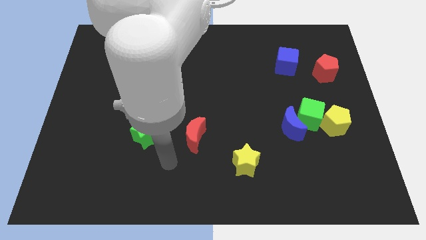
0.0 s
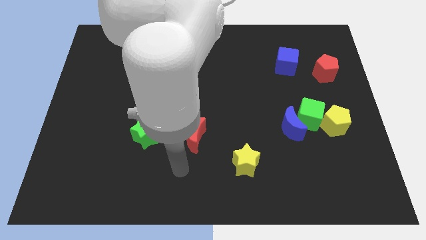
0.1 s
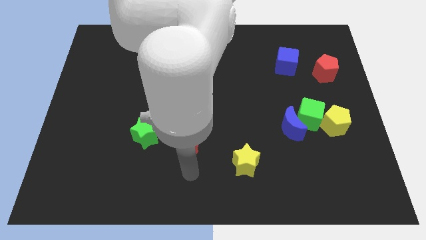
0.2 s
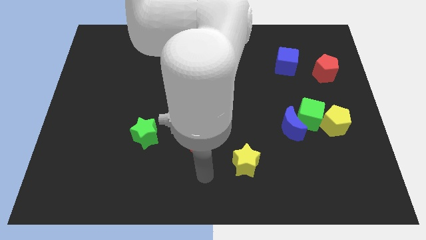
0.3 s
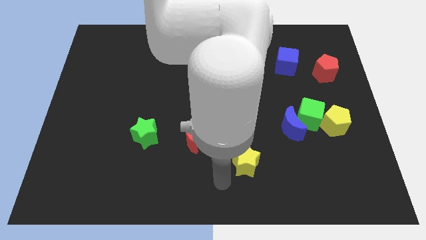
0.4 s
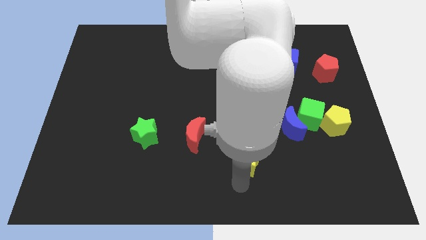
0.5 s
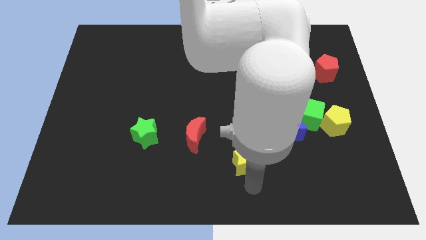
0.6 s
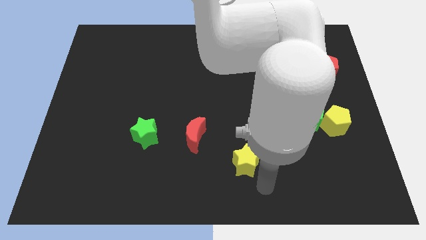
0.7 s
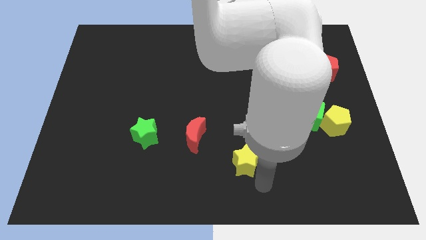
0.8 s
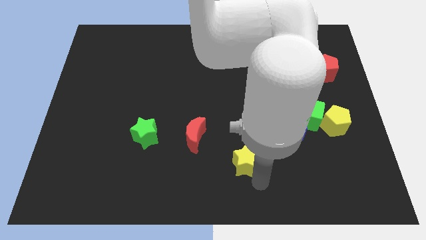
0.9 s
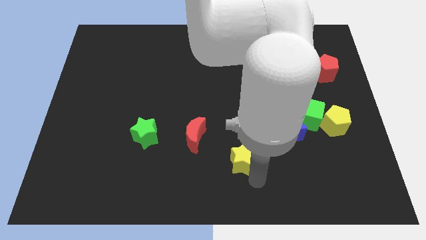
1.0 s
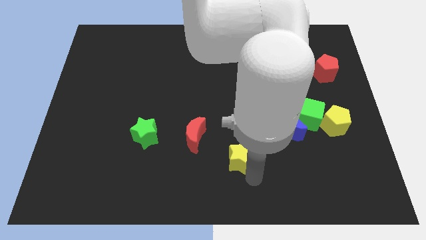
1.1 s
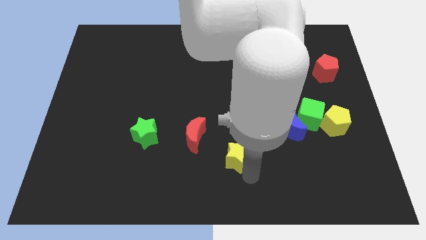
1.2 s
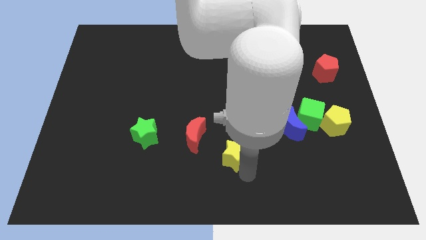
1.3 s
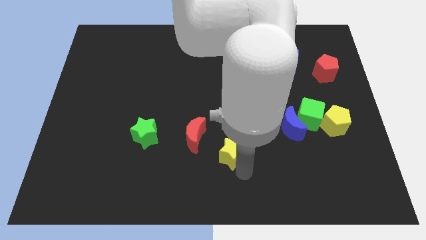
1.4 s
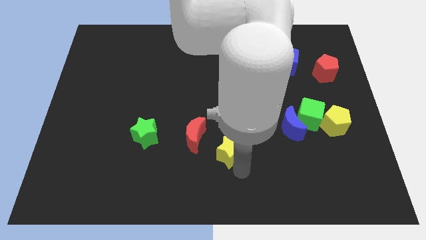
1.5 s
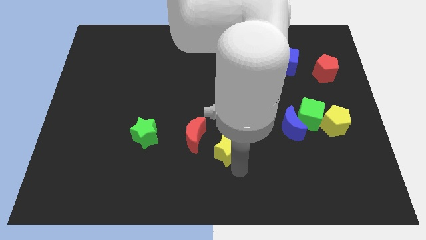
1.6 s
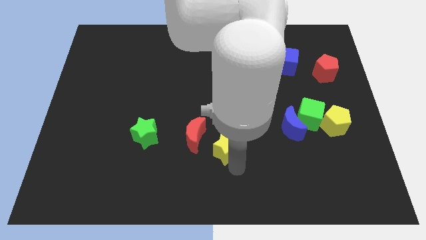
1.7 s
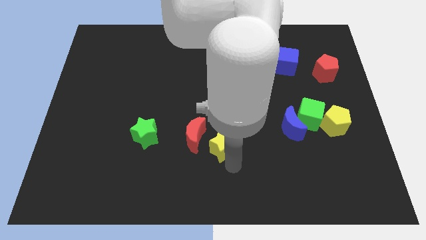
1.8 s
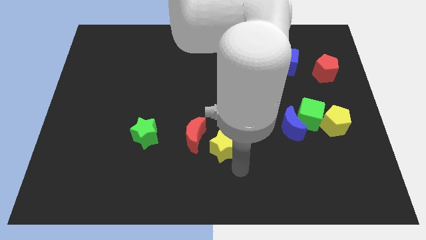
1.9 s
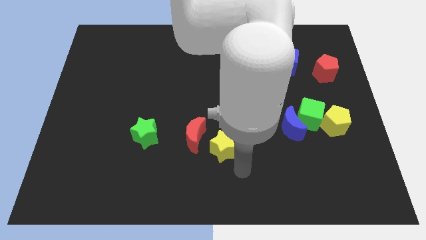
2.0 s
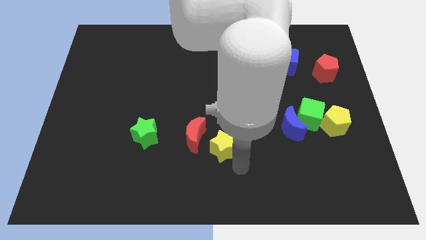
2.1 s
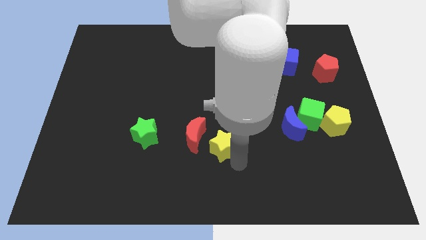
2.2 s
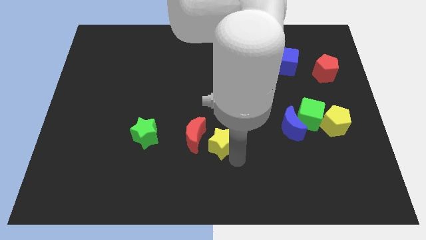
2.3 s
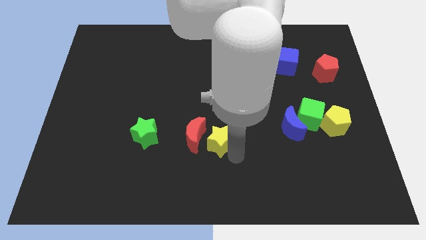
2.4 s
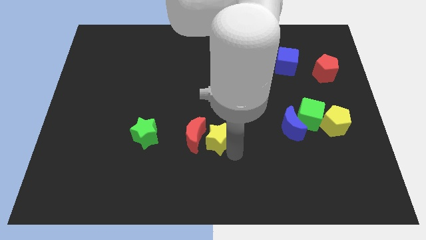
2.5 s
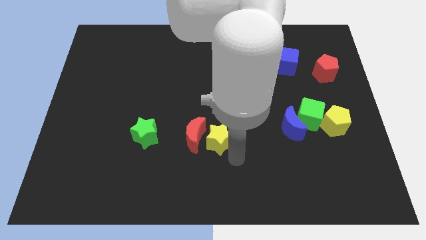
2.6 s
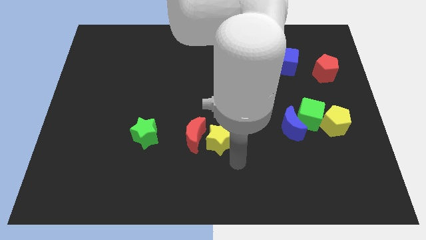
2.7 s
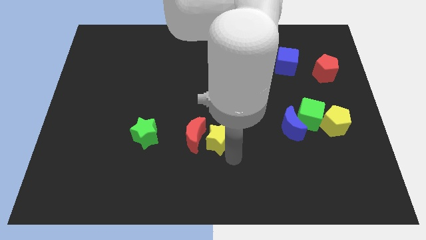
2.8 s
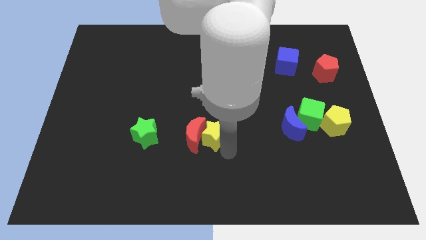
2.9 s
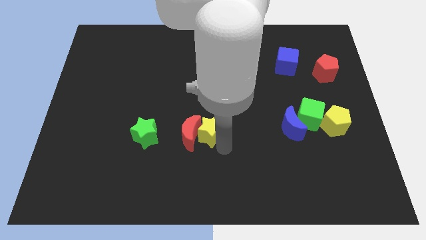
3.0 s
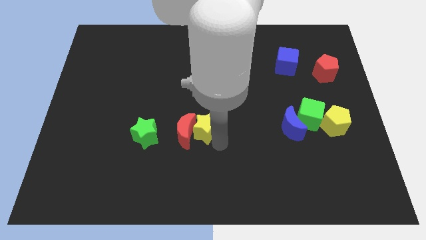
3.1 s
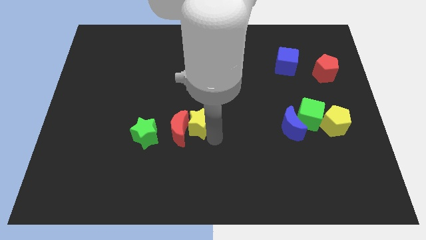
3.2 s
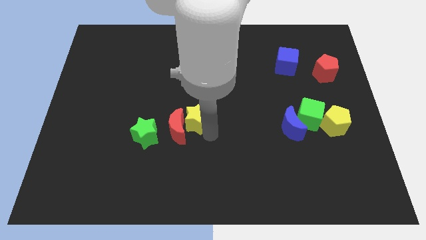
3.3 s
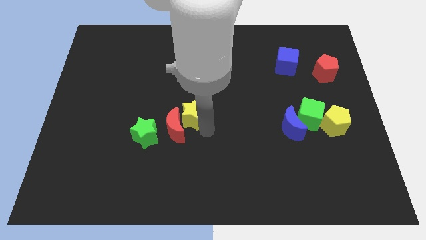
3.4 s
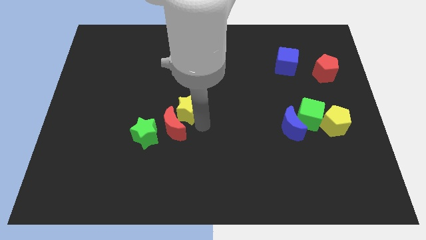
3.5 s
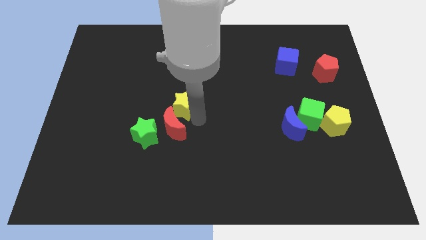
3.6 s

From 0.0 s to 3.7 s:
push the yellow star up and then to the left

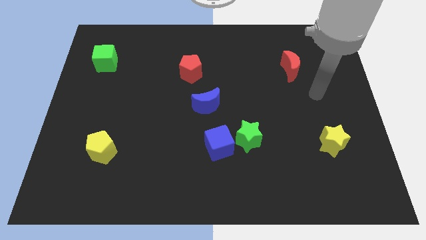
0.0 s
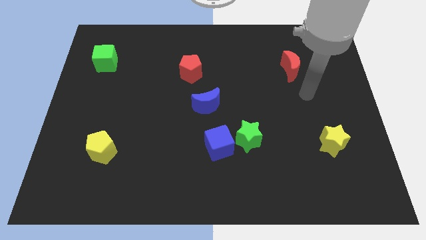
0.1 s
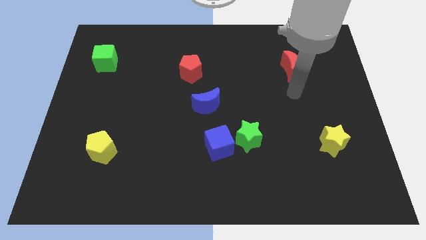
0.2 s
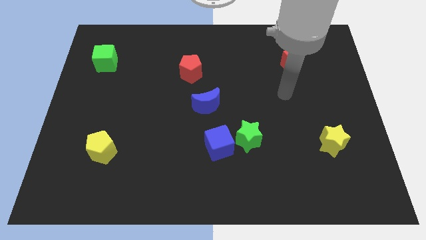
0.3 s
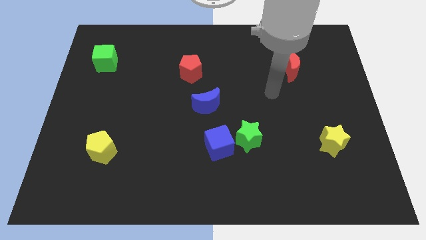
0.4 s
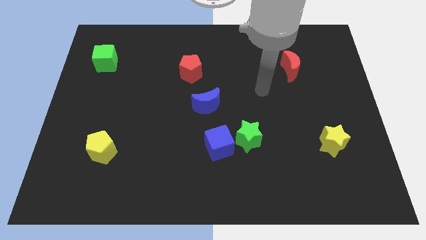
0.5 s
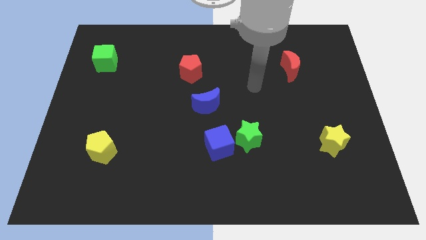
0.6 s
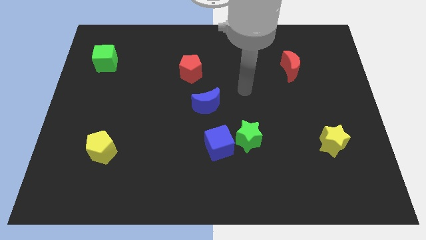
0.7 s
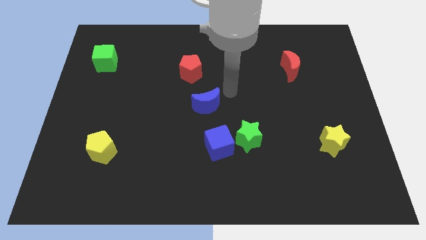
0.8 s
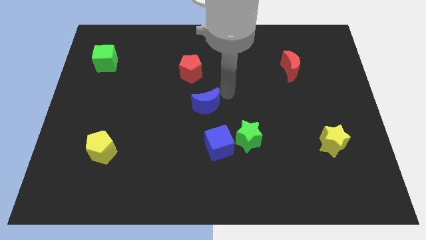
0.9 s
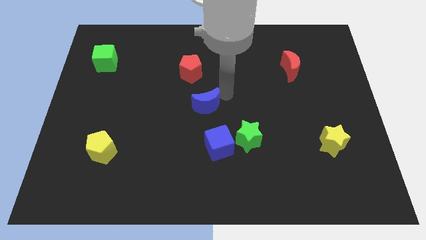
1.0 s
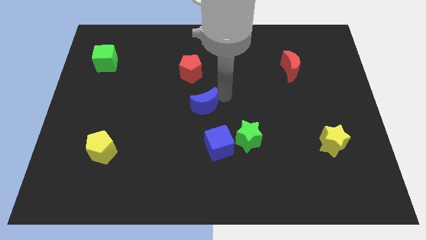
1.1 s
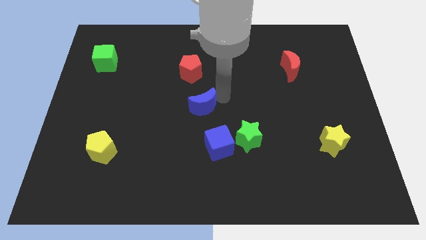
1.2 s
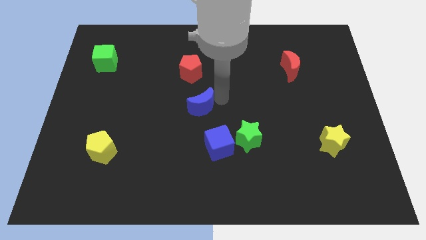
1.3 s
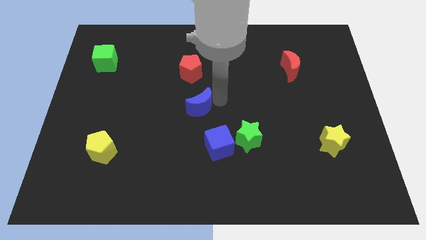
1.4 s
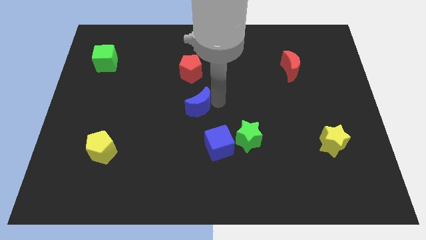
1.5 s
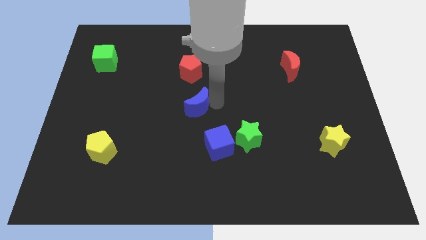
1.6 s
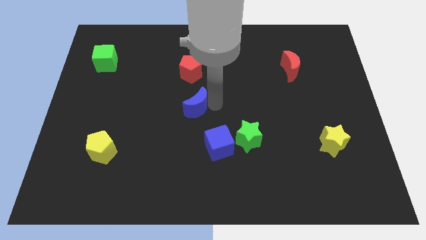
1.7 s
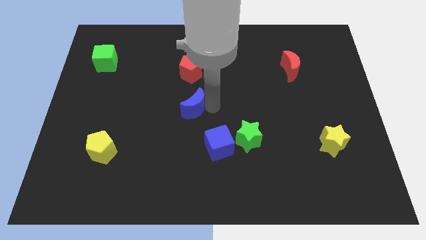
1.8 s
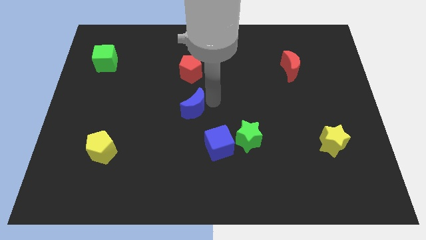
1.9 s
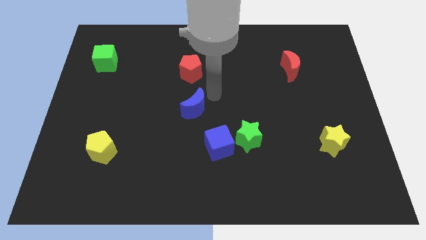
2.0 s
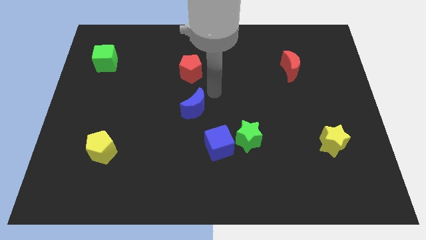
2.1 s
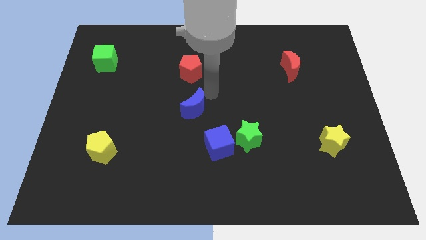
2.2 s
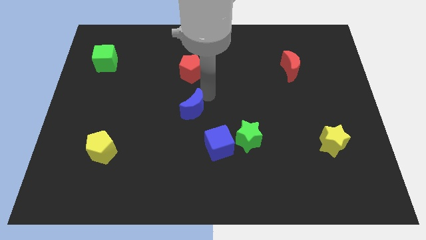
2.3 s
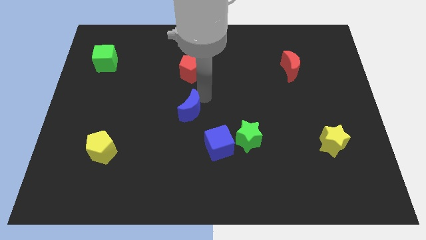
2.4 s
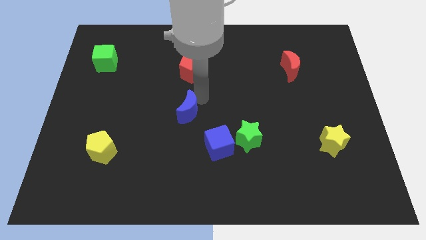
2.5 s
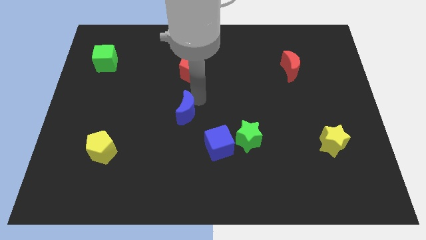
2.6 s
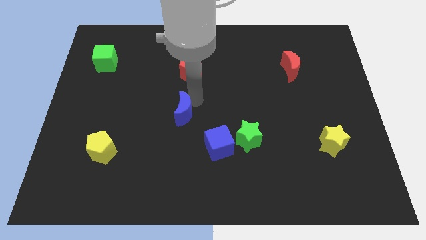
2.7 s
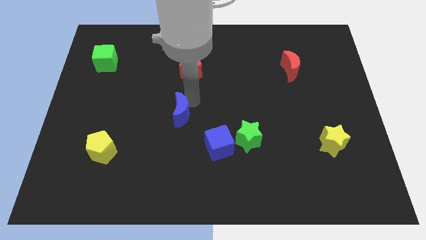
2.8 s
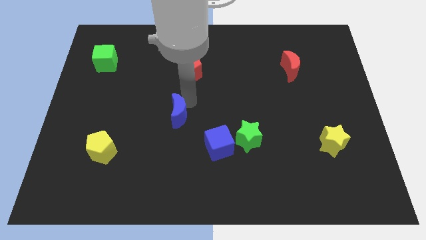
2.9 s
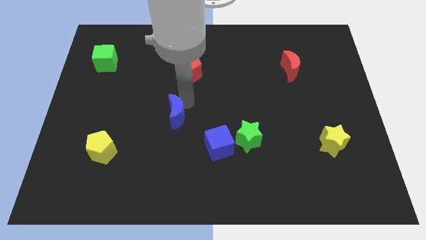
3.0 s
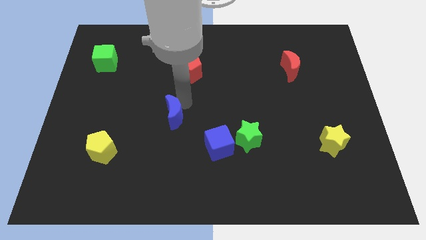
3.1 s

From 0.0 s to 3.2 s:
slightly move the blue moon down and to the left

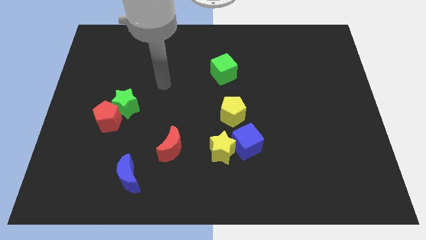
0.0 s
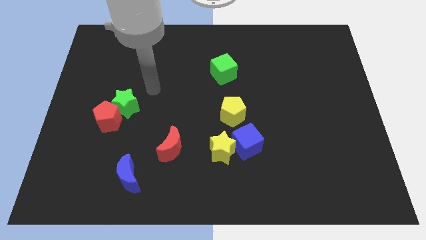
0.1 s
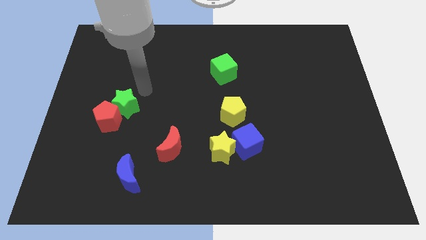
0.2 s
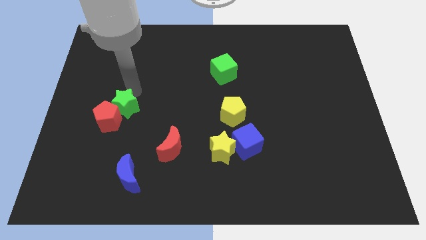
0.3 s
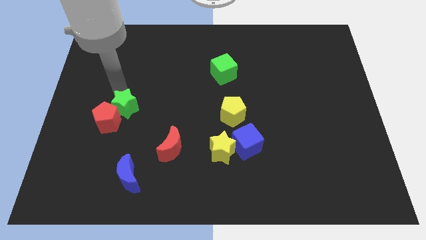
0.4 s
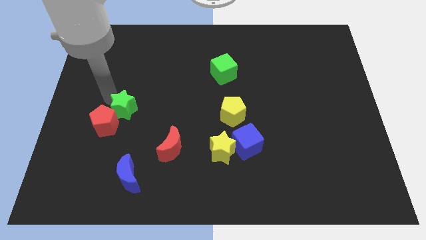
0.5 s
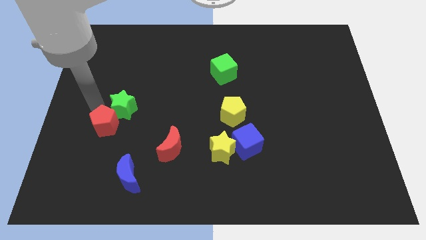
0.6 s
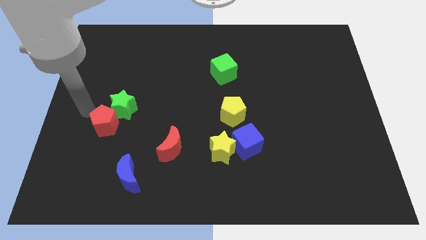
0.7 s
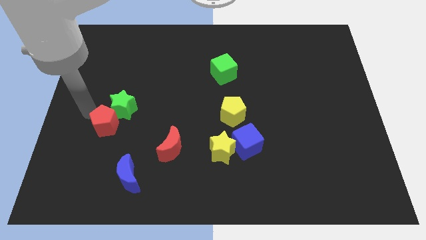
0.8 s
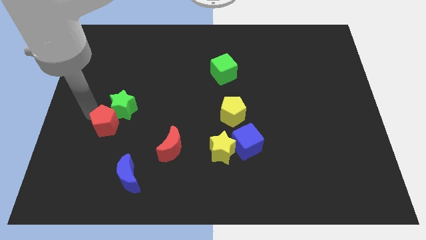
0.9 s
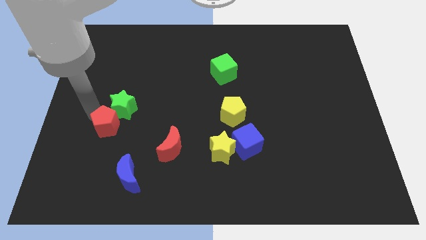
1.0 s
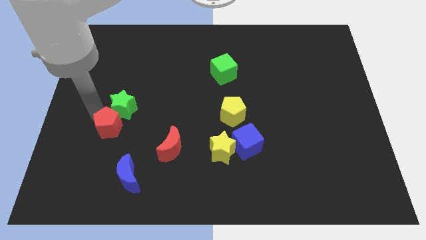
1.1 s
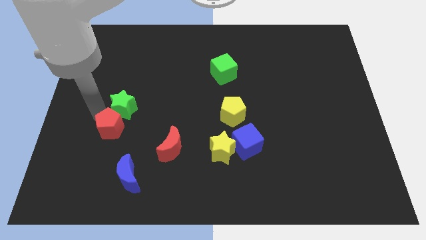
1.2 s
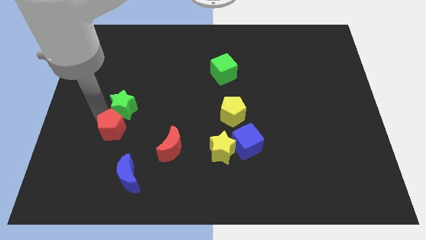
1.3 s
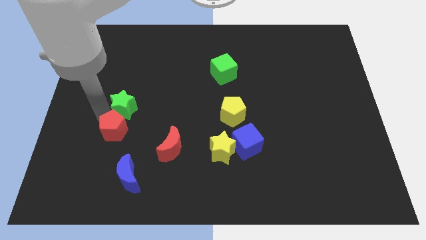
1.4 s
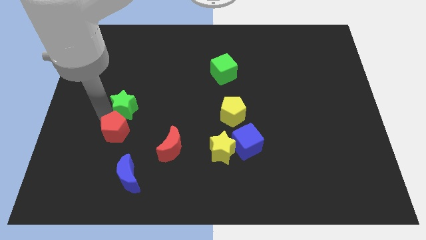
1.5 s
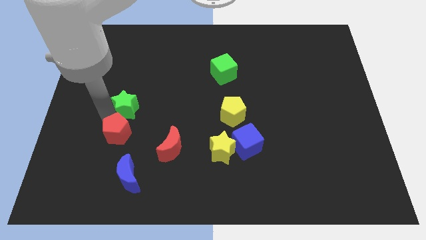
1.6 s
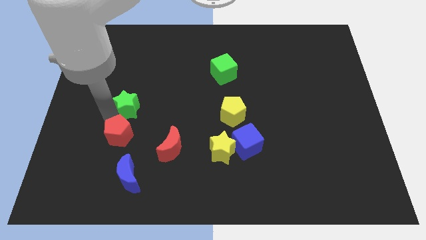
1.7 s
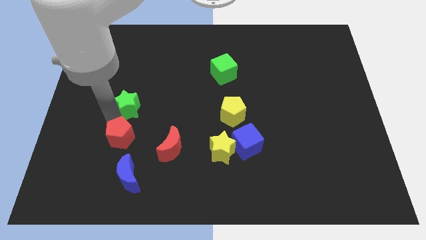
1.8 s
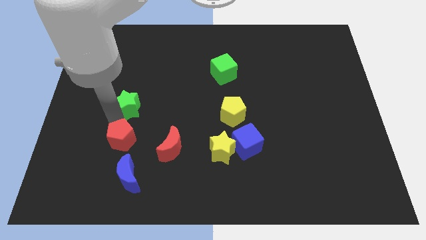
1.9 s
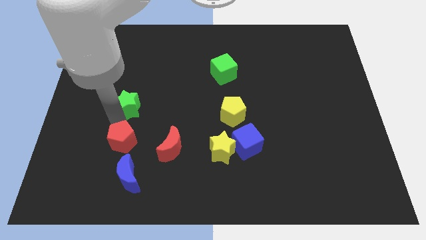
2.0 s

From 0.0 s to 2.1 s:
slide the red pentagon down and right diagonally a little bit
